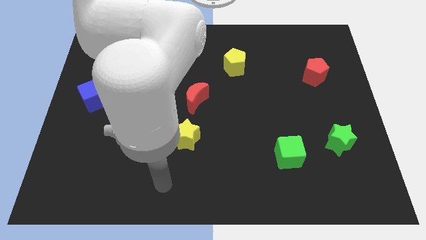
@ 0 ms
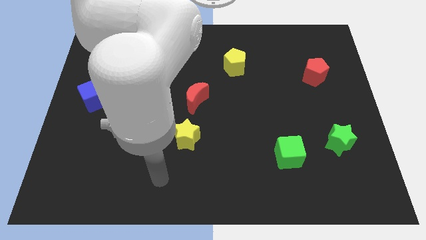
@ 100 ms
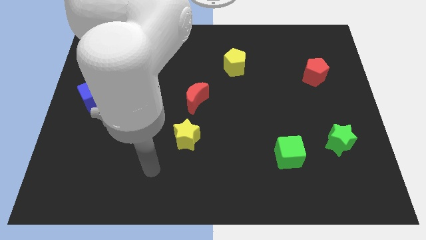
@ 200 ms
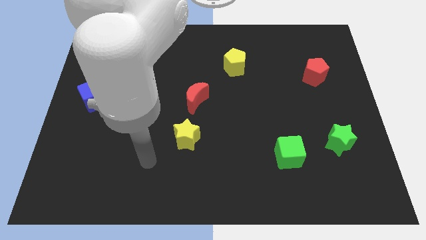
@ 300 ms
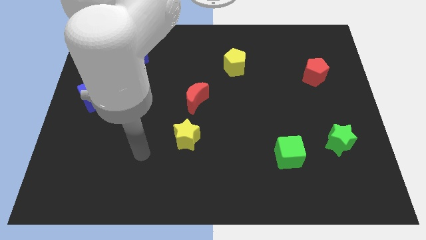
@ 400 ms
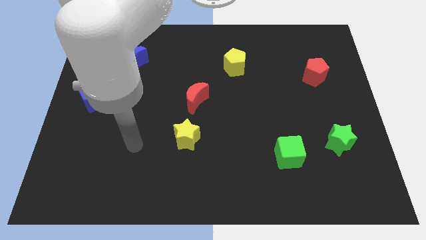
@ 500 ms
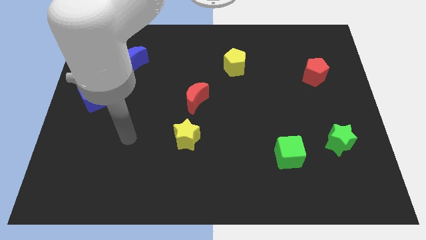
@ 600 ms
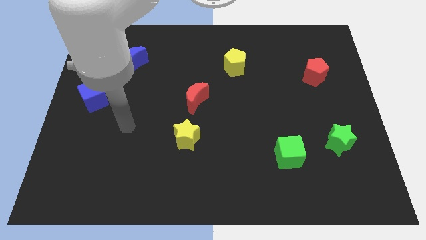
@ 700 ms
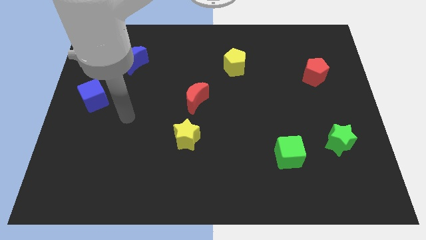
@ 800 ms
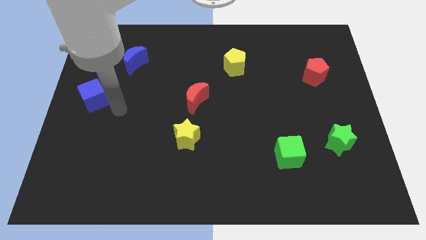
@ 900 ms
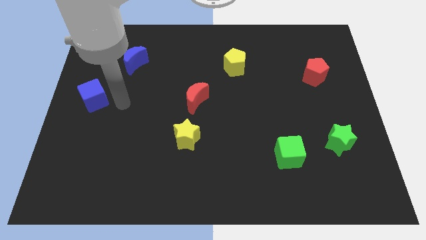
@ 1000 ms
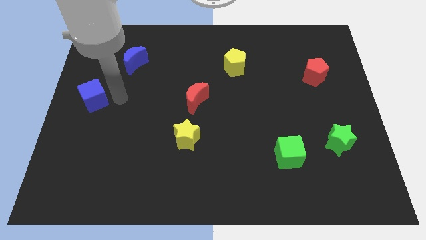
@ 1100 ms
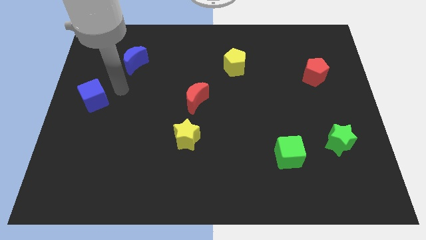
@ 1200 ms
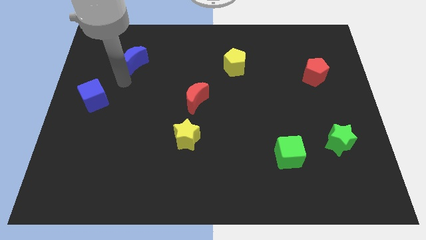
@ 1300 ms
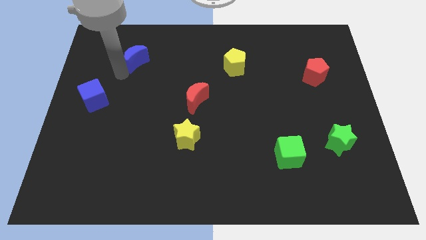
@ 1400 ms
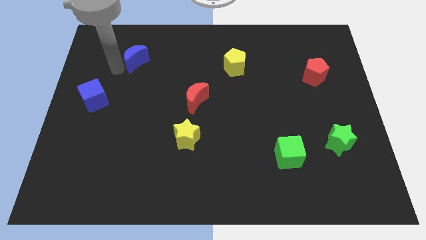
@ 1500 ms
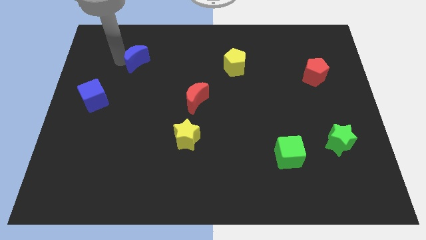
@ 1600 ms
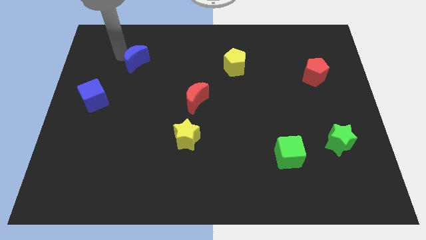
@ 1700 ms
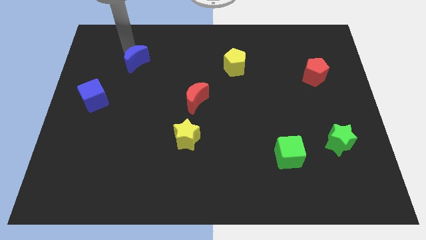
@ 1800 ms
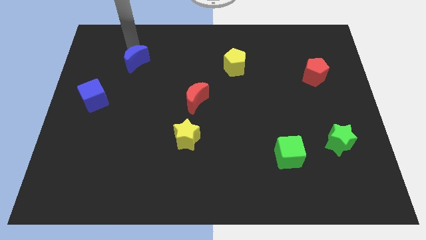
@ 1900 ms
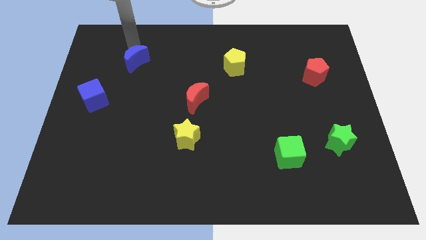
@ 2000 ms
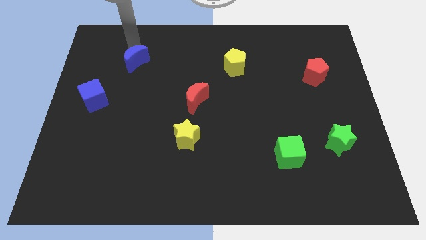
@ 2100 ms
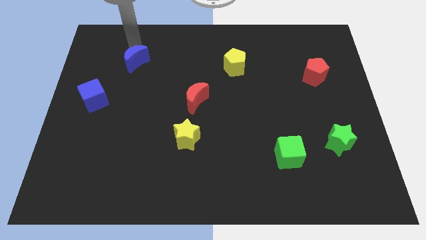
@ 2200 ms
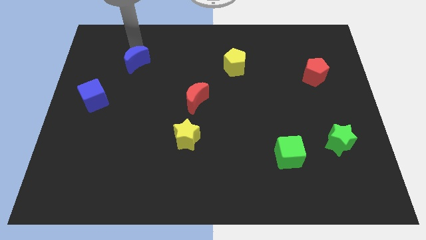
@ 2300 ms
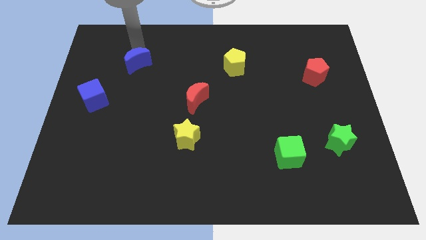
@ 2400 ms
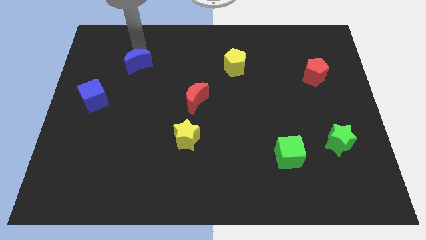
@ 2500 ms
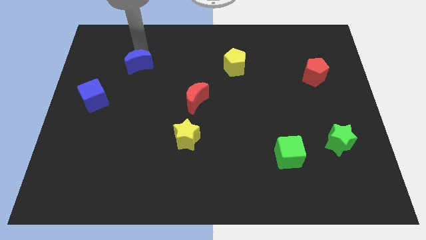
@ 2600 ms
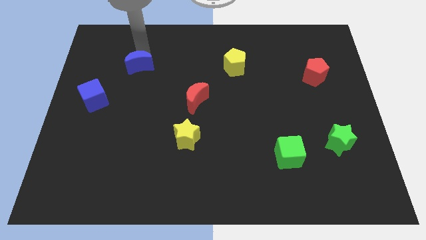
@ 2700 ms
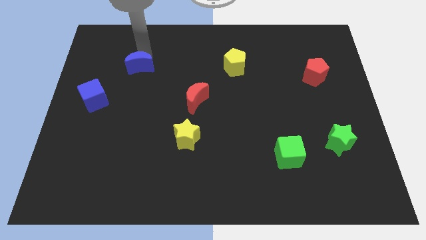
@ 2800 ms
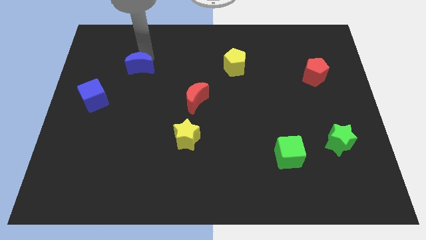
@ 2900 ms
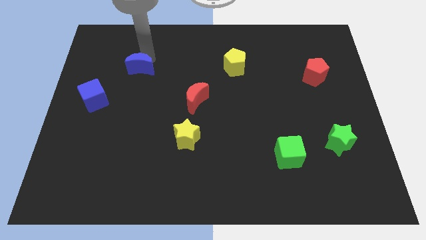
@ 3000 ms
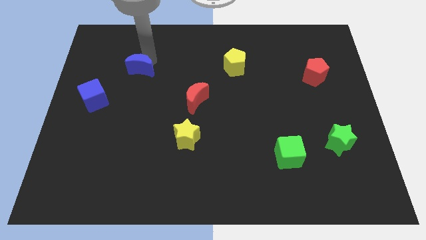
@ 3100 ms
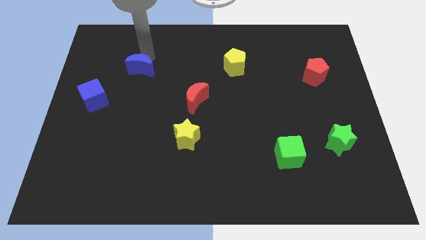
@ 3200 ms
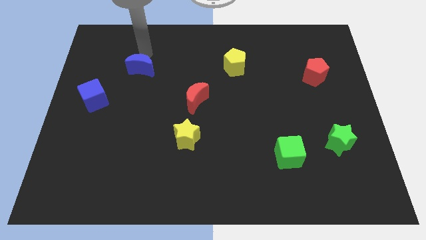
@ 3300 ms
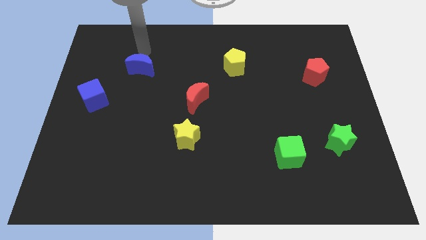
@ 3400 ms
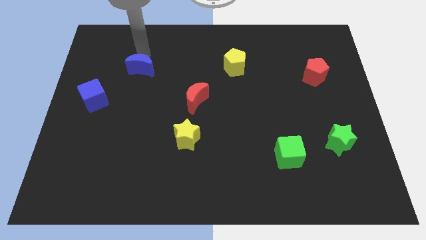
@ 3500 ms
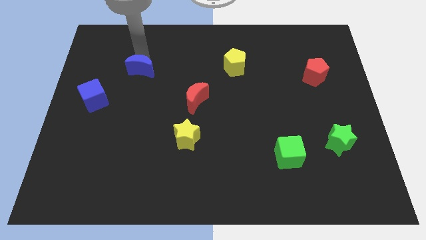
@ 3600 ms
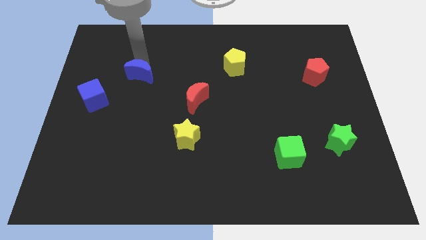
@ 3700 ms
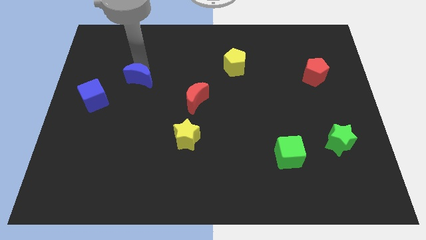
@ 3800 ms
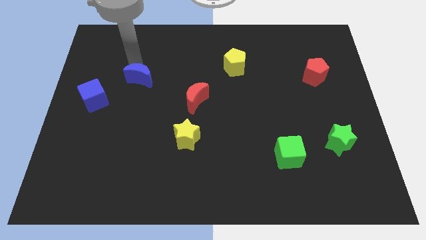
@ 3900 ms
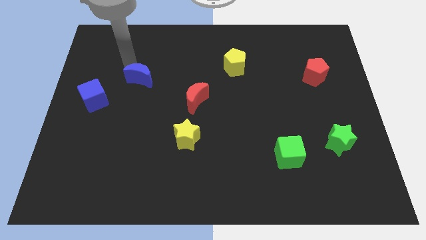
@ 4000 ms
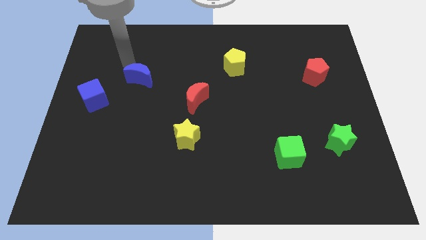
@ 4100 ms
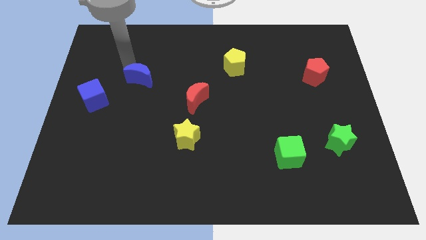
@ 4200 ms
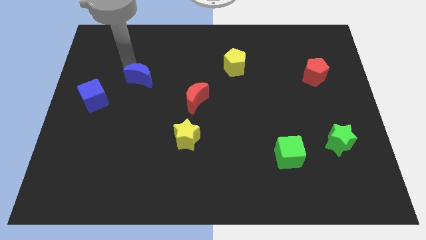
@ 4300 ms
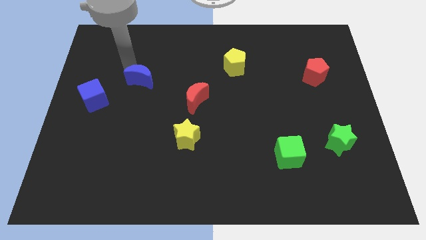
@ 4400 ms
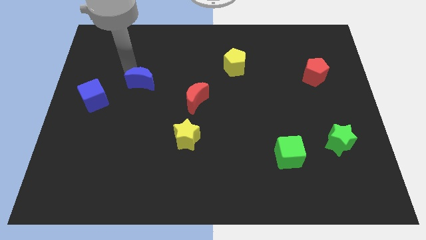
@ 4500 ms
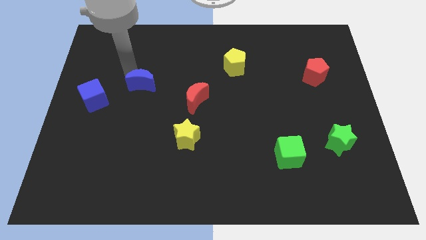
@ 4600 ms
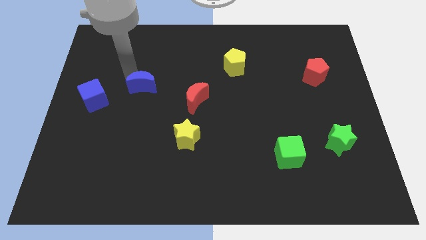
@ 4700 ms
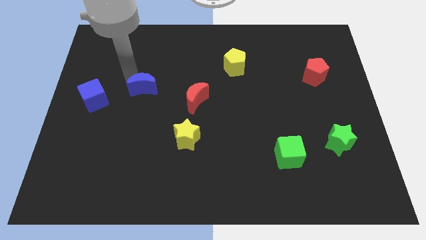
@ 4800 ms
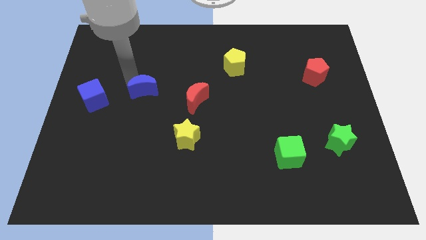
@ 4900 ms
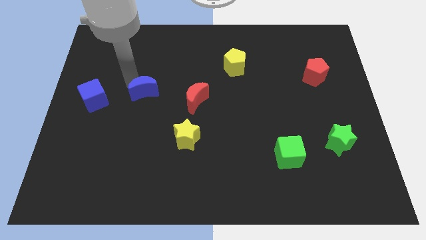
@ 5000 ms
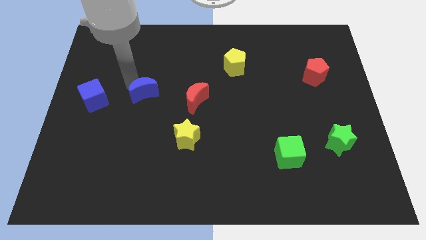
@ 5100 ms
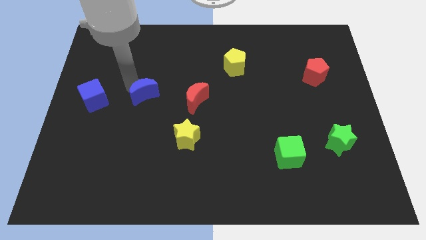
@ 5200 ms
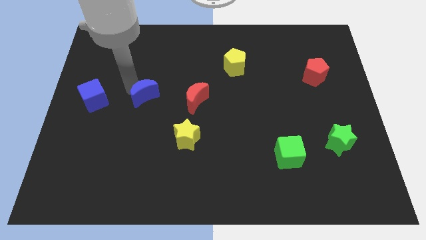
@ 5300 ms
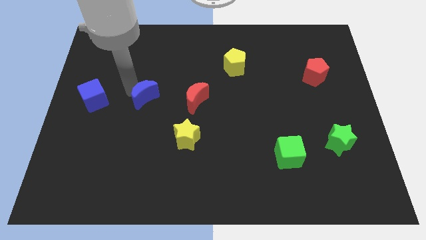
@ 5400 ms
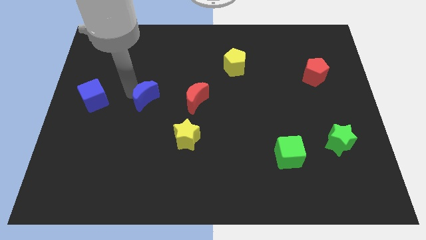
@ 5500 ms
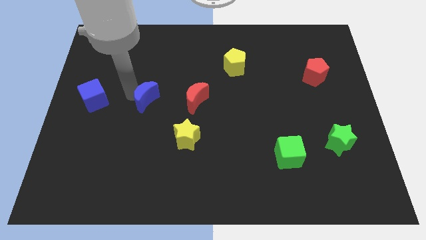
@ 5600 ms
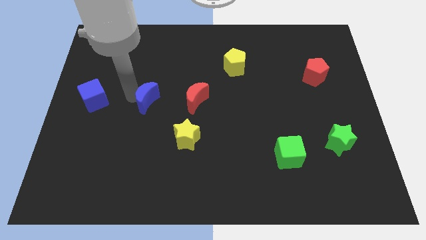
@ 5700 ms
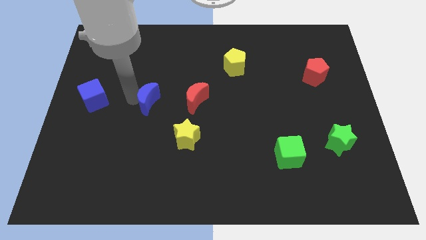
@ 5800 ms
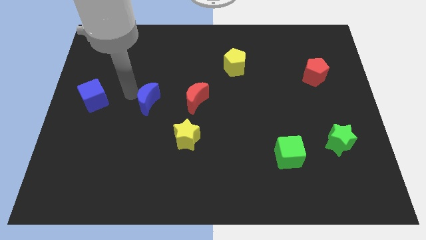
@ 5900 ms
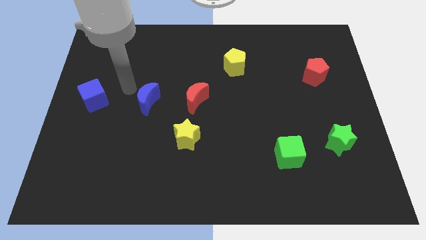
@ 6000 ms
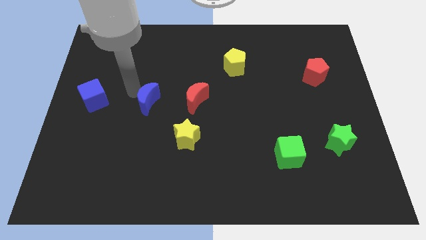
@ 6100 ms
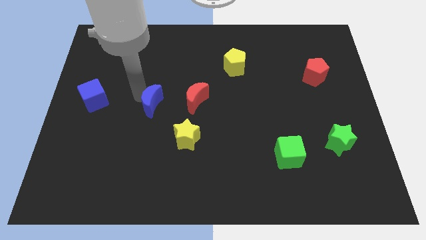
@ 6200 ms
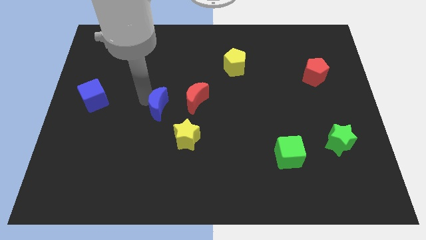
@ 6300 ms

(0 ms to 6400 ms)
slide the blue moon to the bottom left of the red moon

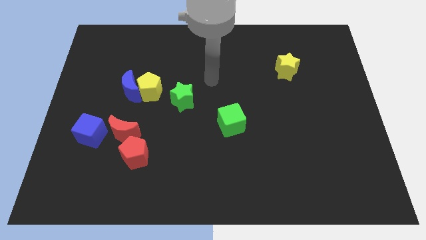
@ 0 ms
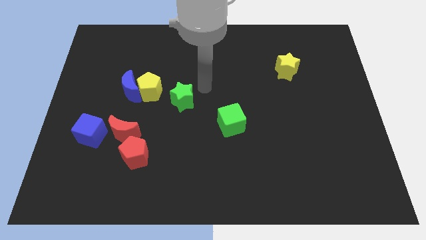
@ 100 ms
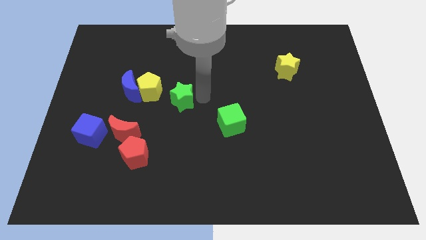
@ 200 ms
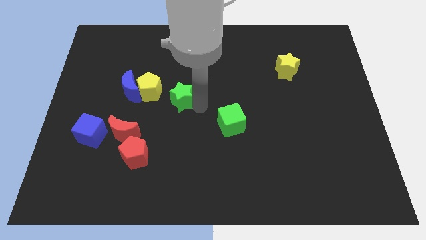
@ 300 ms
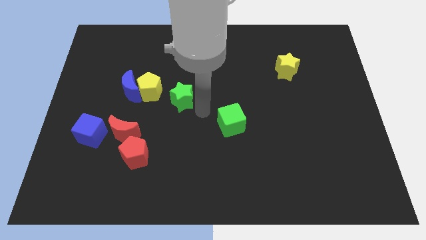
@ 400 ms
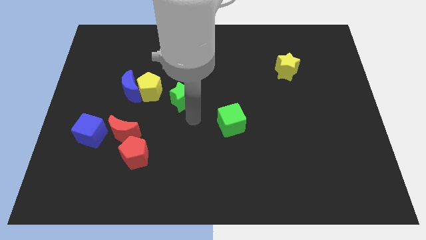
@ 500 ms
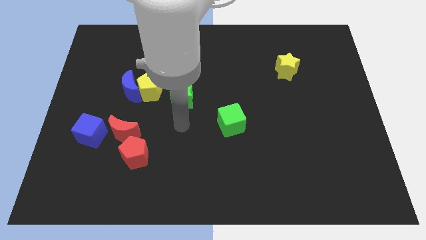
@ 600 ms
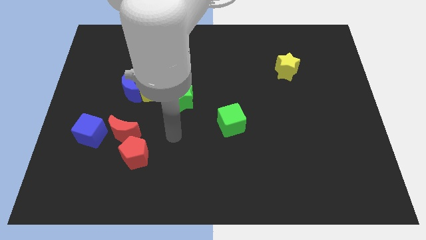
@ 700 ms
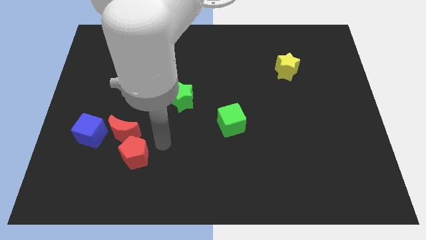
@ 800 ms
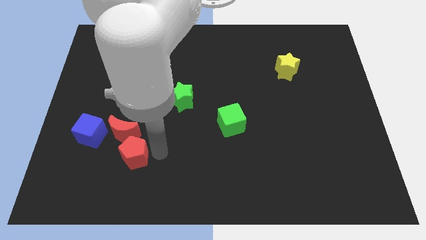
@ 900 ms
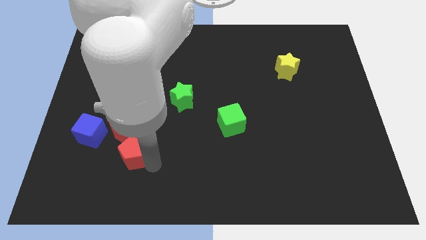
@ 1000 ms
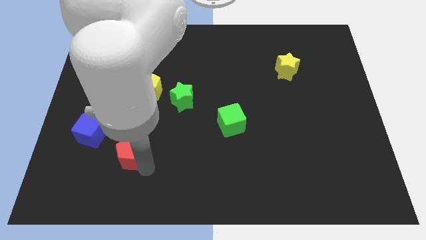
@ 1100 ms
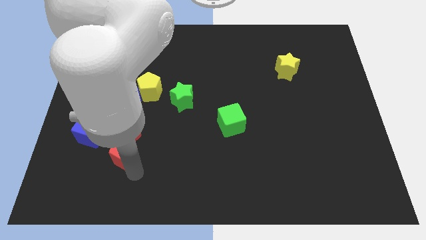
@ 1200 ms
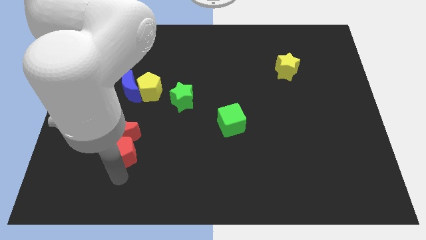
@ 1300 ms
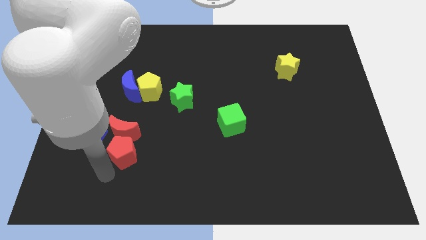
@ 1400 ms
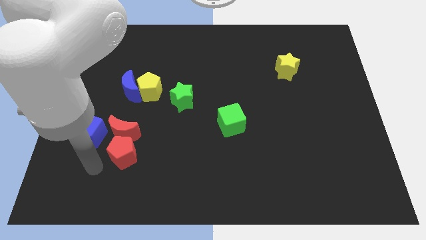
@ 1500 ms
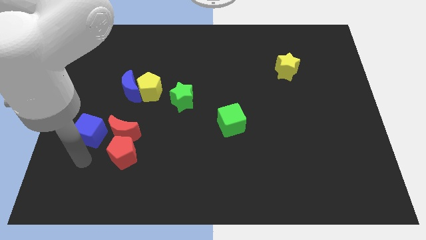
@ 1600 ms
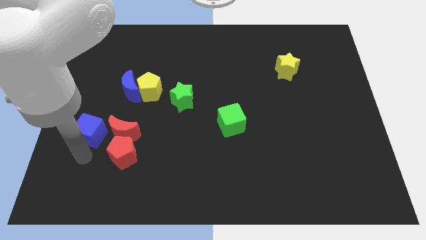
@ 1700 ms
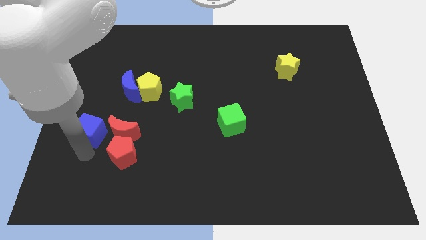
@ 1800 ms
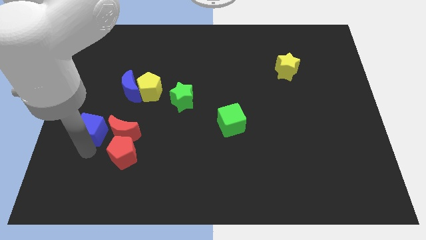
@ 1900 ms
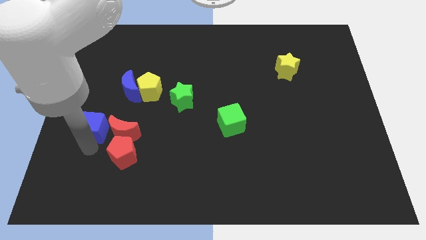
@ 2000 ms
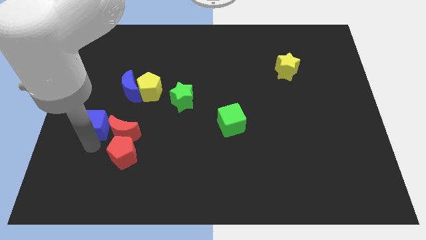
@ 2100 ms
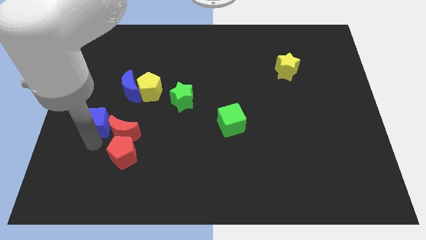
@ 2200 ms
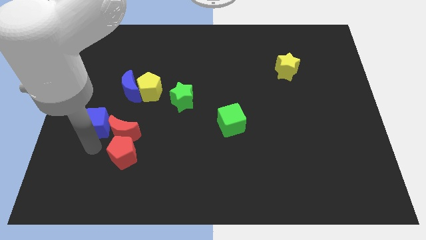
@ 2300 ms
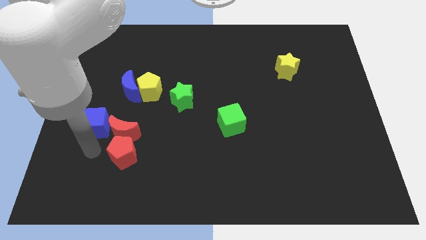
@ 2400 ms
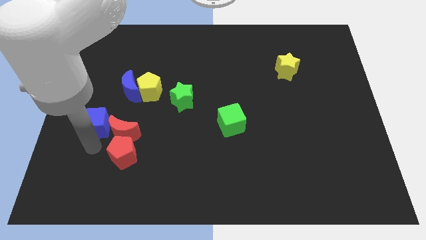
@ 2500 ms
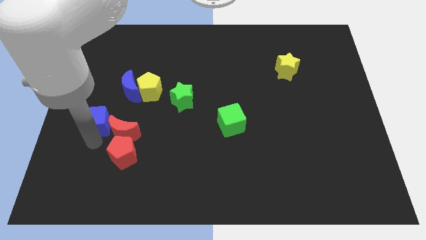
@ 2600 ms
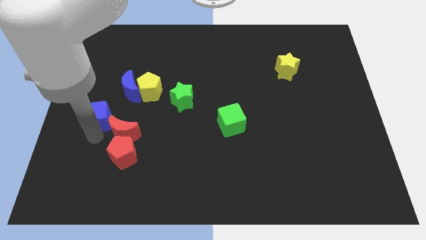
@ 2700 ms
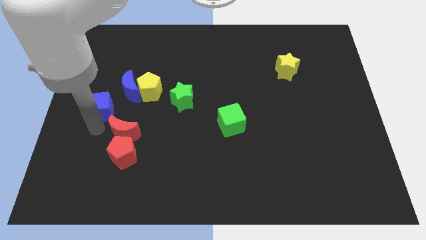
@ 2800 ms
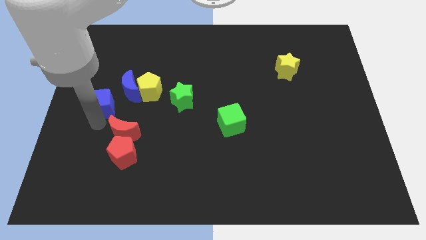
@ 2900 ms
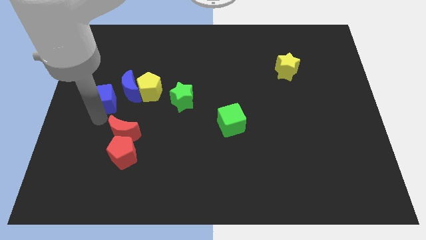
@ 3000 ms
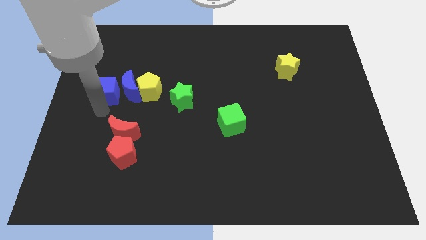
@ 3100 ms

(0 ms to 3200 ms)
push the blue cube to the top left of the blue moon
